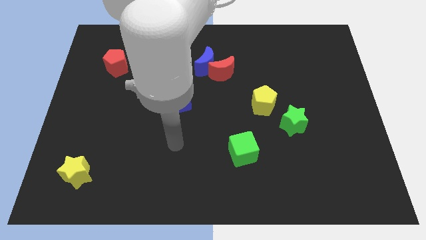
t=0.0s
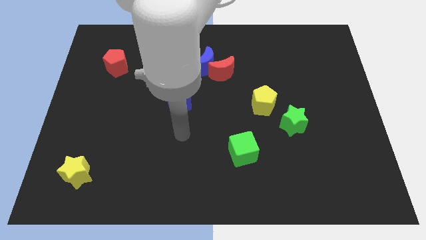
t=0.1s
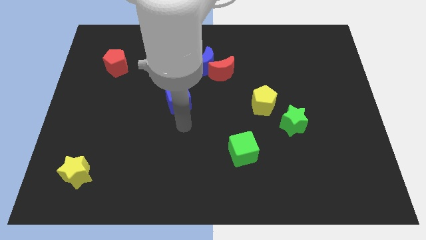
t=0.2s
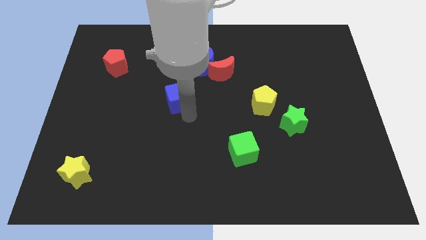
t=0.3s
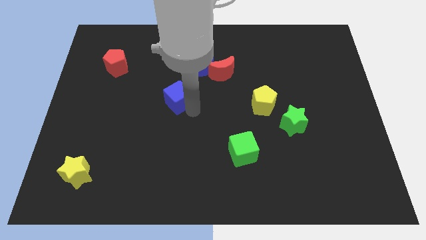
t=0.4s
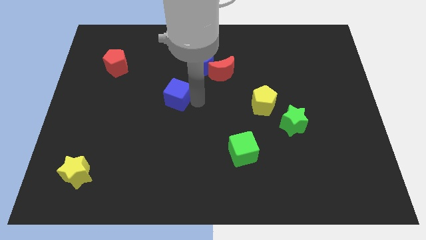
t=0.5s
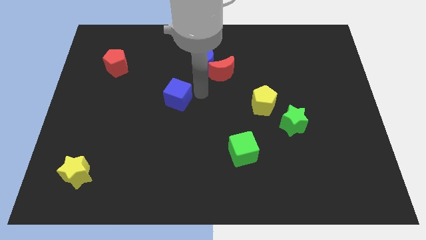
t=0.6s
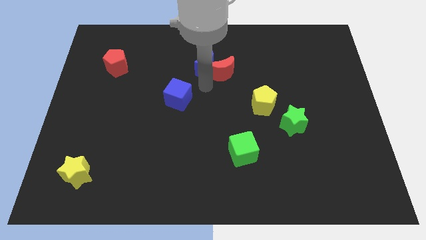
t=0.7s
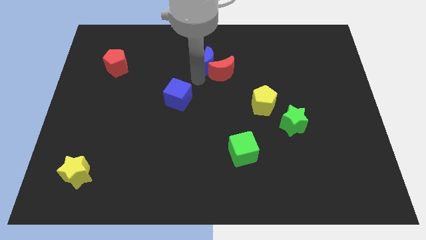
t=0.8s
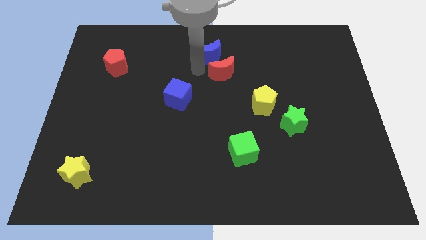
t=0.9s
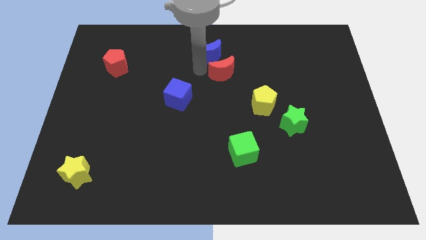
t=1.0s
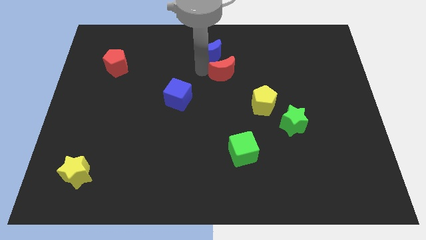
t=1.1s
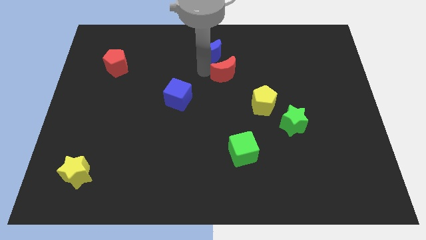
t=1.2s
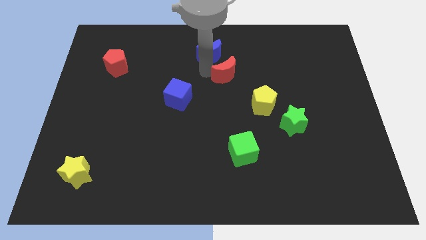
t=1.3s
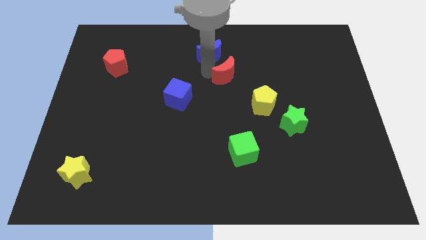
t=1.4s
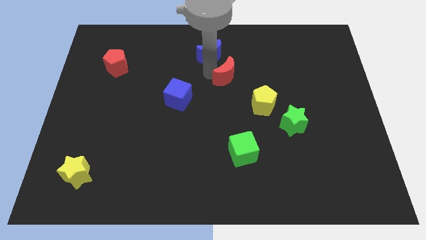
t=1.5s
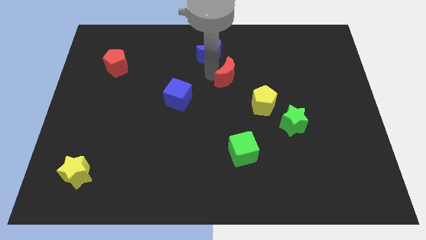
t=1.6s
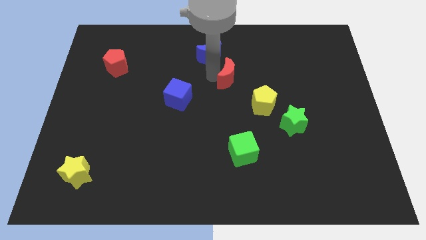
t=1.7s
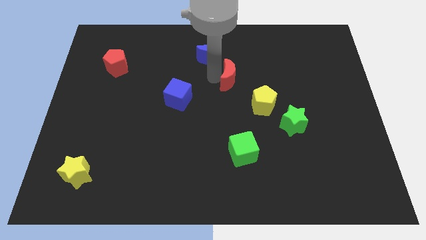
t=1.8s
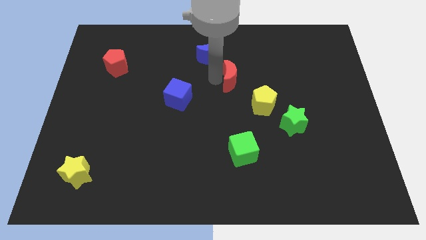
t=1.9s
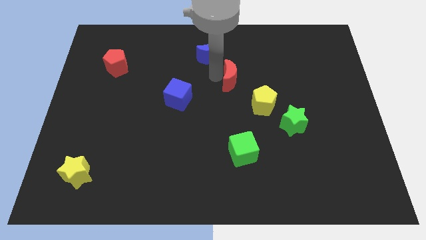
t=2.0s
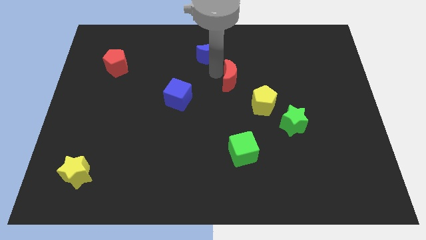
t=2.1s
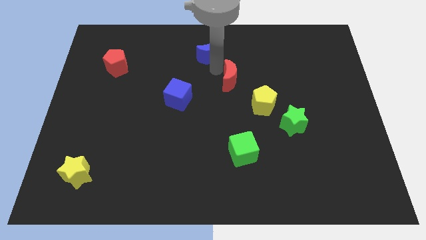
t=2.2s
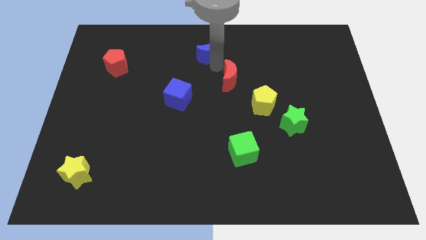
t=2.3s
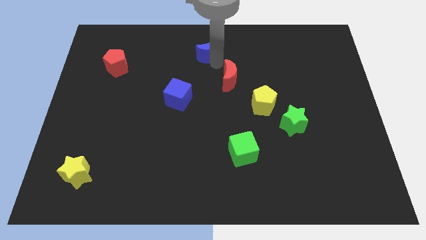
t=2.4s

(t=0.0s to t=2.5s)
separate the red moon from the blue moon

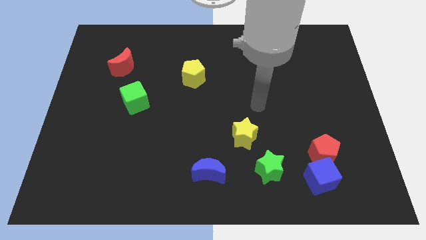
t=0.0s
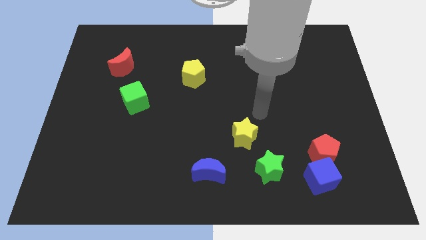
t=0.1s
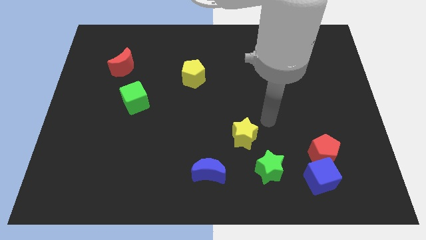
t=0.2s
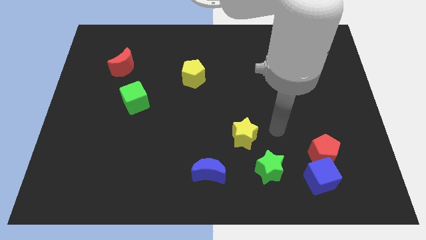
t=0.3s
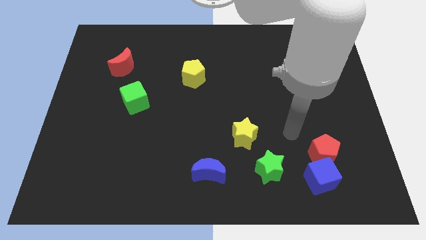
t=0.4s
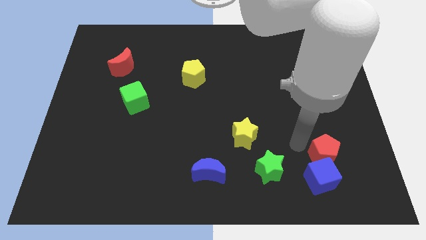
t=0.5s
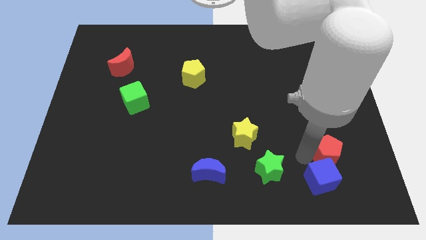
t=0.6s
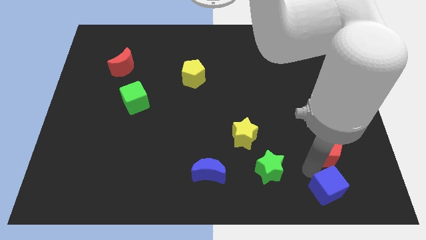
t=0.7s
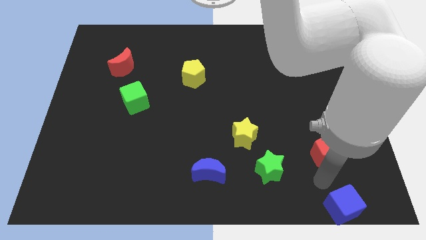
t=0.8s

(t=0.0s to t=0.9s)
pull the red pentagon apart from the blue cube

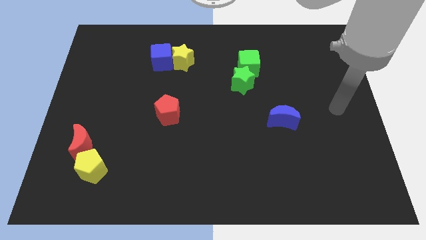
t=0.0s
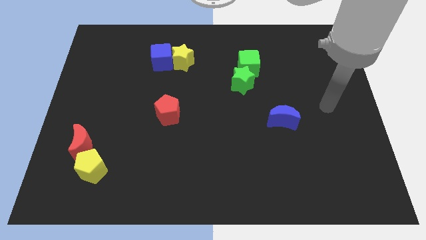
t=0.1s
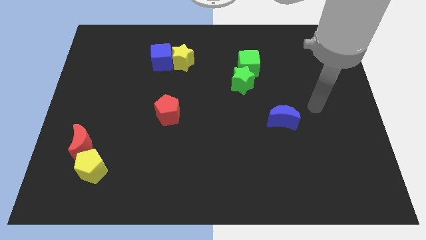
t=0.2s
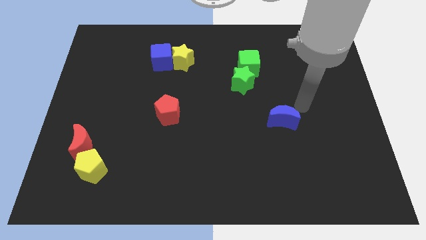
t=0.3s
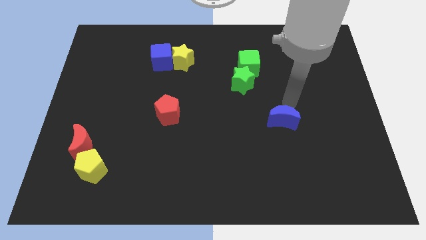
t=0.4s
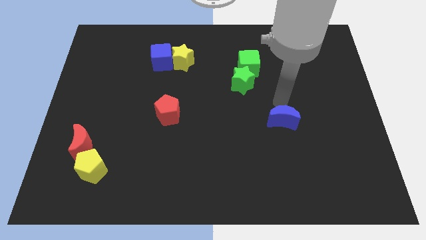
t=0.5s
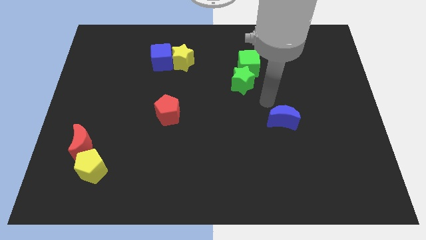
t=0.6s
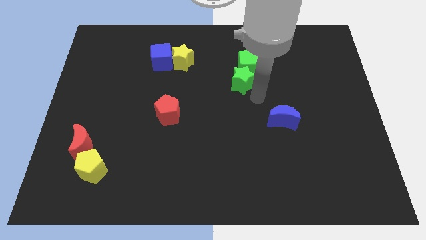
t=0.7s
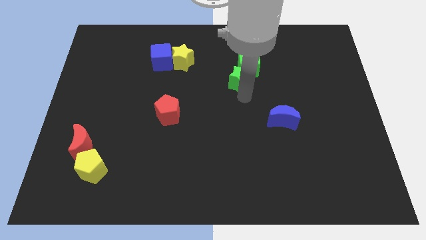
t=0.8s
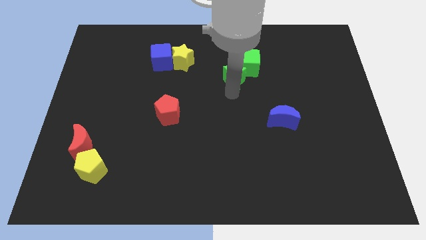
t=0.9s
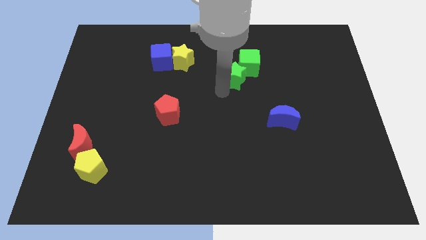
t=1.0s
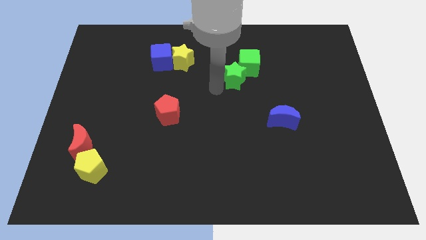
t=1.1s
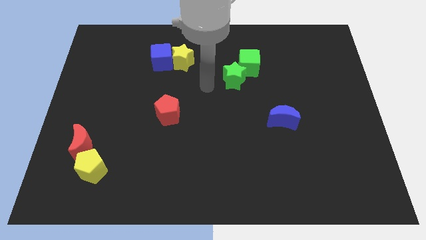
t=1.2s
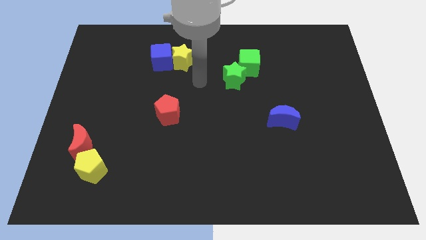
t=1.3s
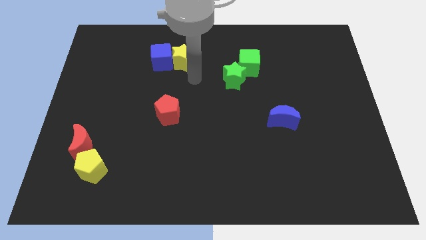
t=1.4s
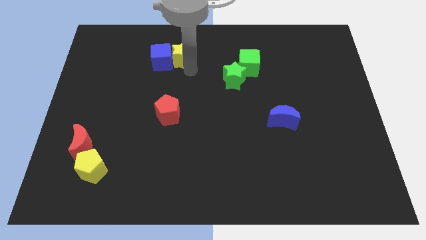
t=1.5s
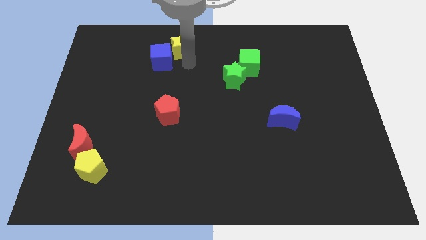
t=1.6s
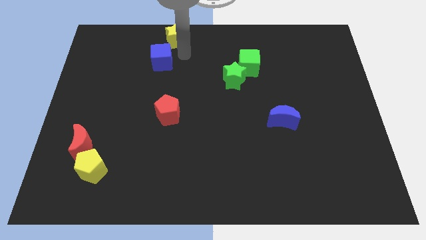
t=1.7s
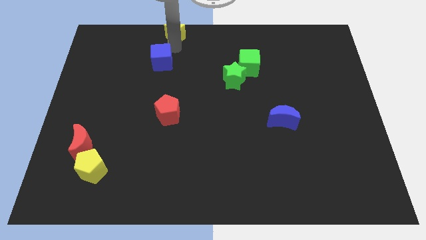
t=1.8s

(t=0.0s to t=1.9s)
pull the blue cube apart from the yellow star

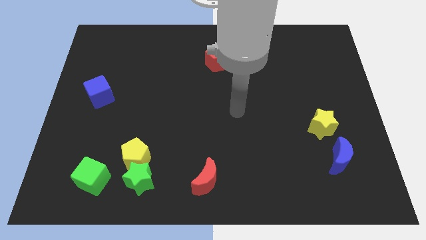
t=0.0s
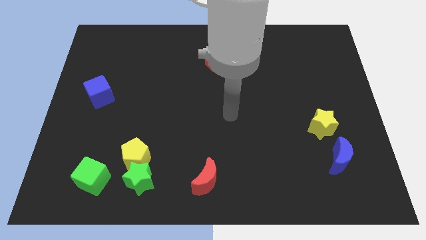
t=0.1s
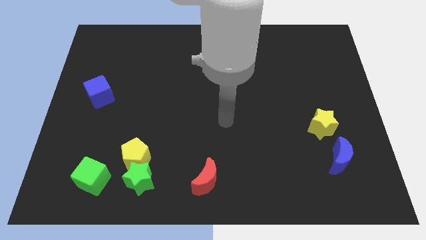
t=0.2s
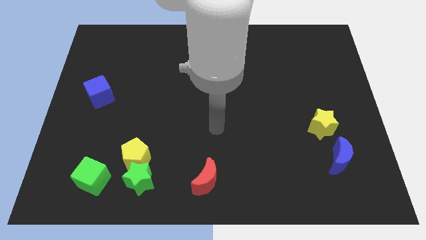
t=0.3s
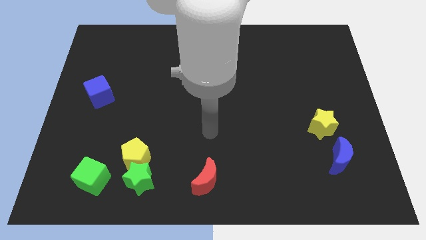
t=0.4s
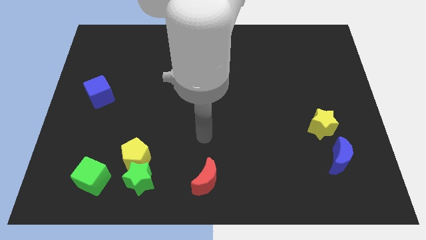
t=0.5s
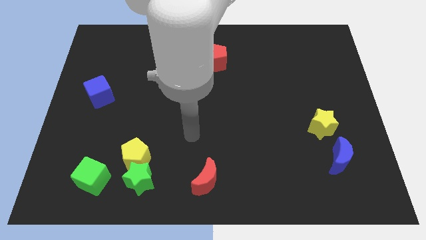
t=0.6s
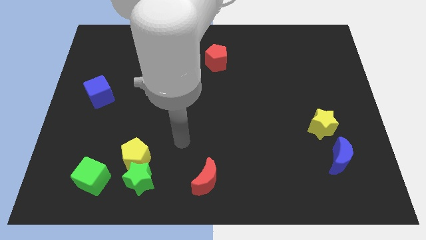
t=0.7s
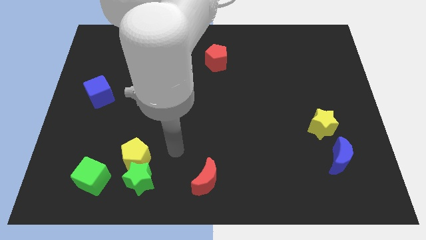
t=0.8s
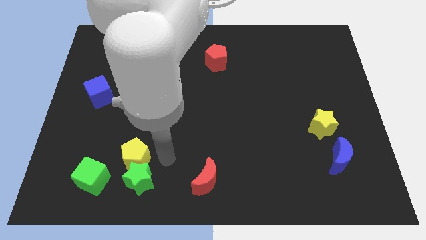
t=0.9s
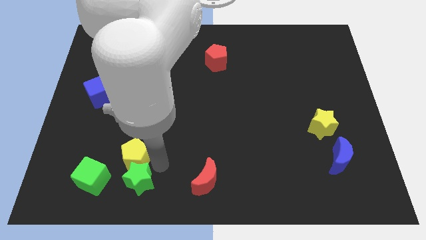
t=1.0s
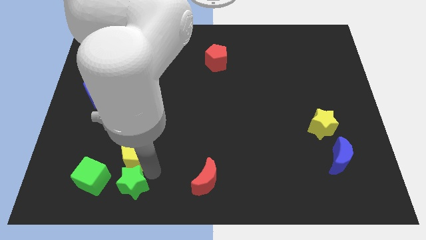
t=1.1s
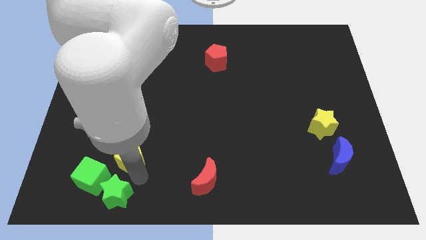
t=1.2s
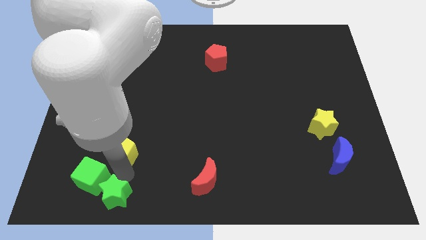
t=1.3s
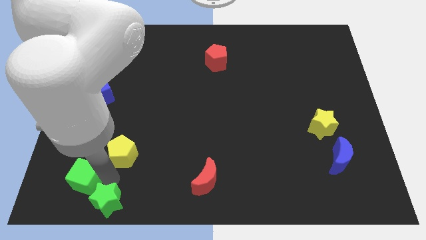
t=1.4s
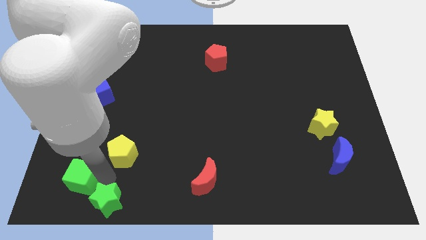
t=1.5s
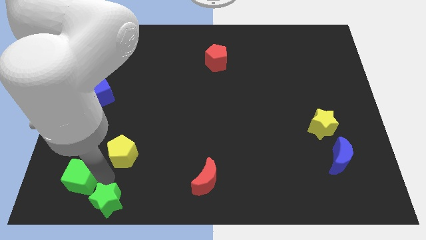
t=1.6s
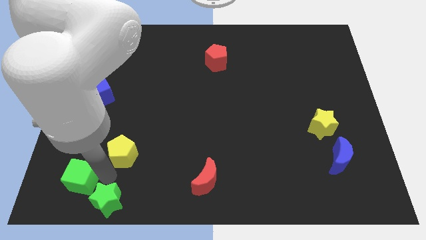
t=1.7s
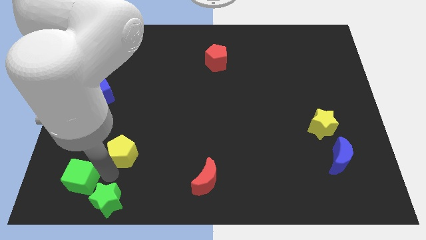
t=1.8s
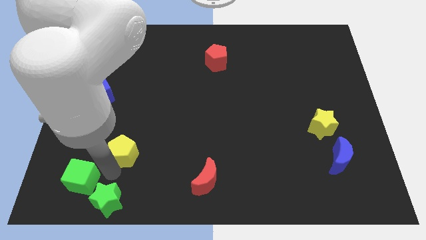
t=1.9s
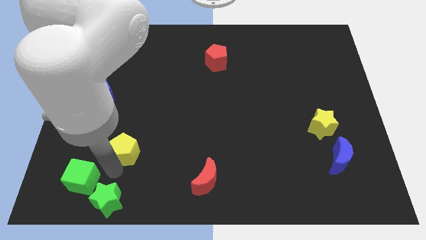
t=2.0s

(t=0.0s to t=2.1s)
separate the yellow pentagon from the green star and green cube

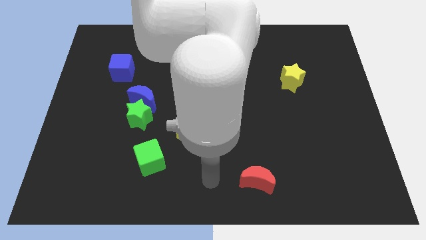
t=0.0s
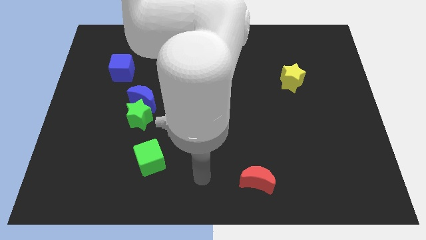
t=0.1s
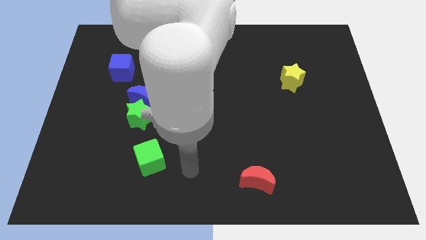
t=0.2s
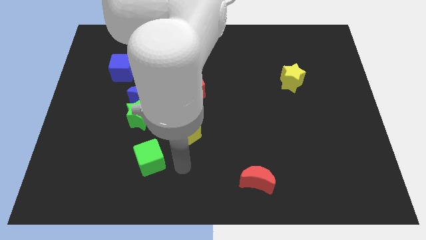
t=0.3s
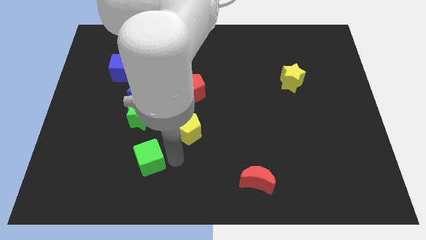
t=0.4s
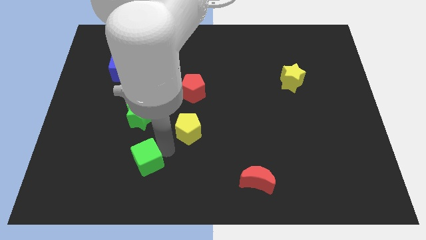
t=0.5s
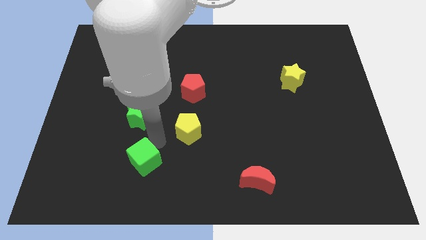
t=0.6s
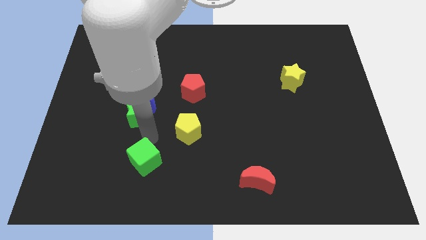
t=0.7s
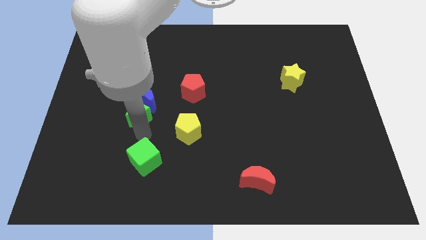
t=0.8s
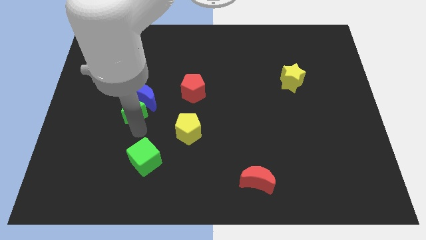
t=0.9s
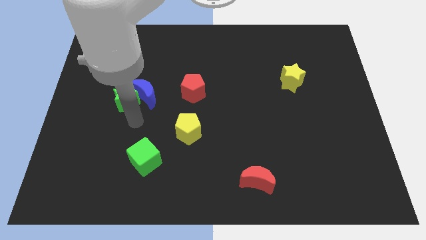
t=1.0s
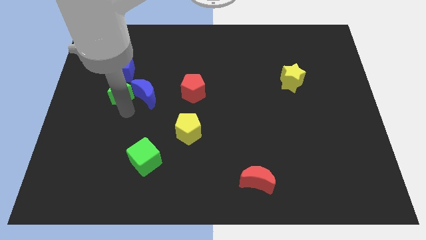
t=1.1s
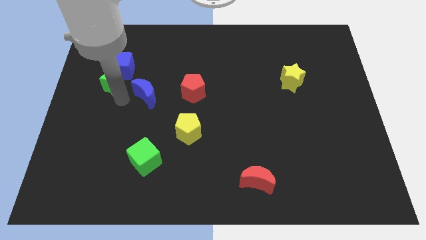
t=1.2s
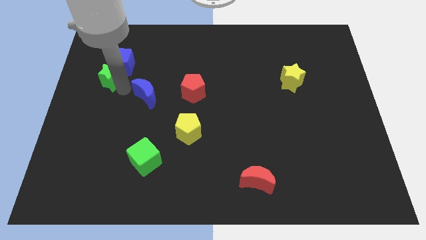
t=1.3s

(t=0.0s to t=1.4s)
separate the blue moon from the green star

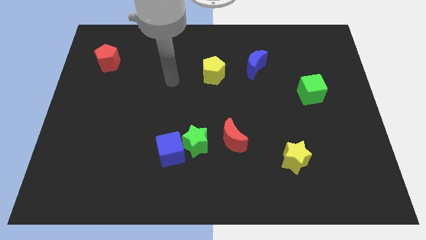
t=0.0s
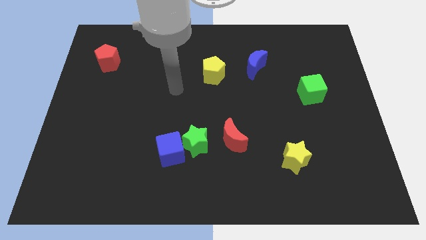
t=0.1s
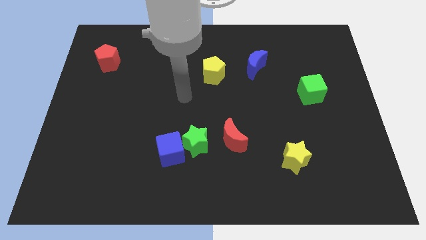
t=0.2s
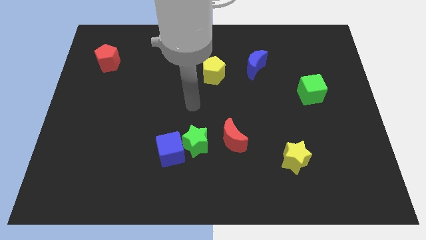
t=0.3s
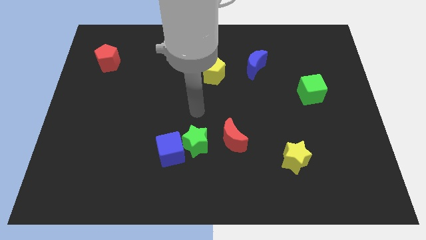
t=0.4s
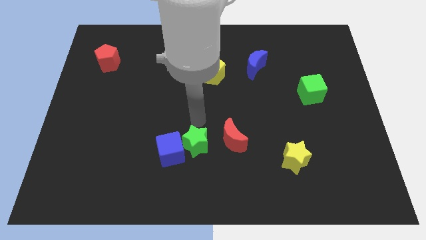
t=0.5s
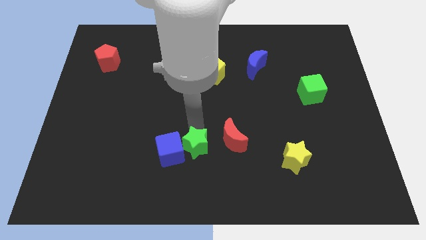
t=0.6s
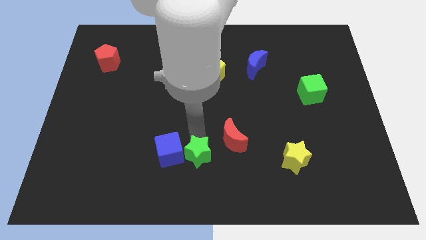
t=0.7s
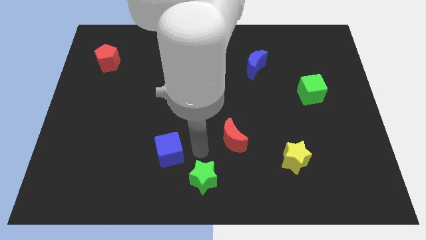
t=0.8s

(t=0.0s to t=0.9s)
separate the blue cube from the green star
